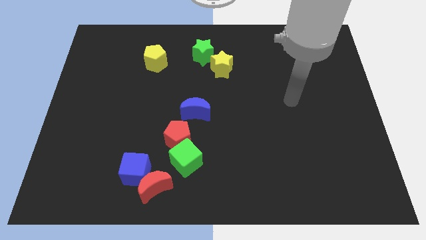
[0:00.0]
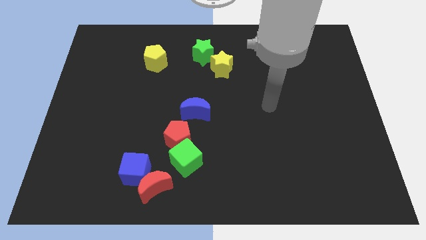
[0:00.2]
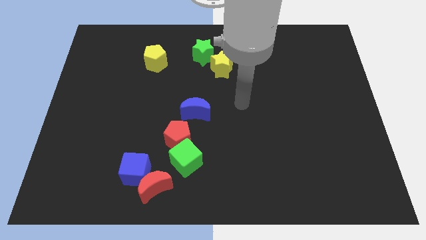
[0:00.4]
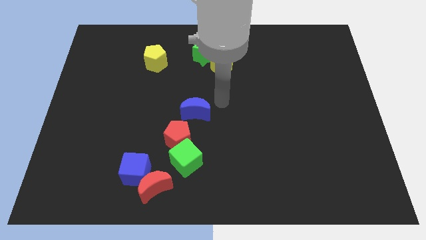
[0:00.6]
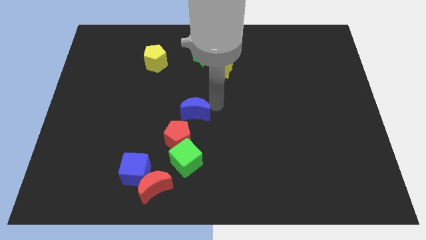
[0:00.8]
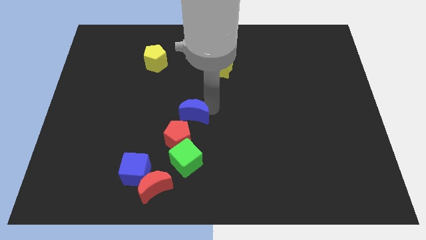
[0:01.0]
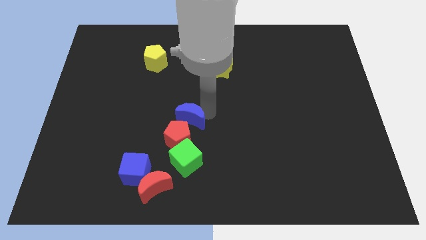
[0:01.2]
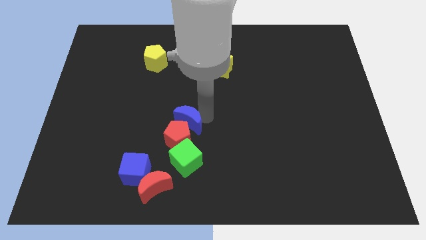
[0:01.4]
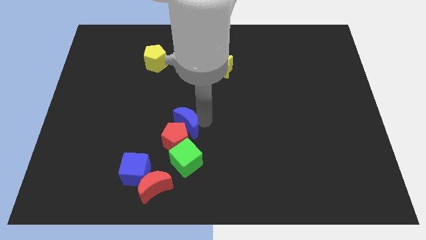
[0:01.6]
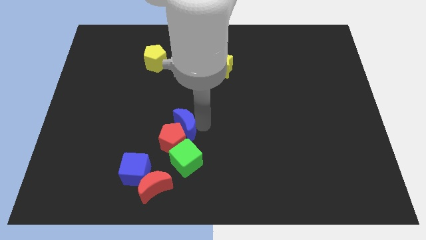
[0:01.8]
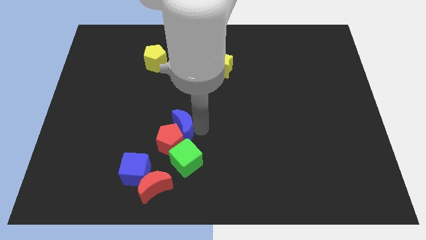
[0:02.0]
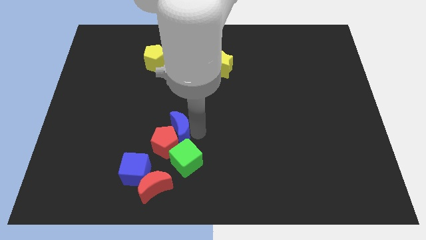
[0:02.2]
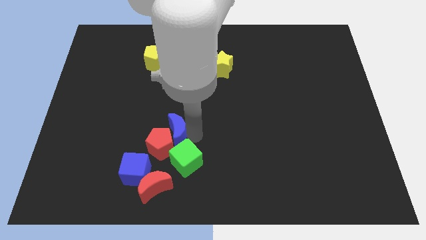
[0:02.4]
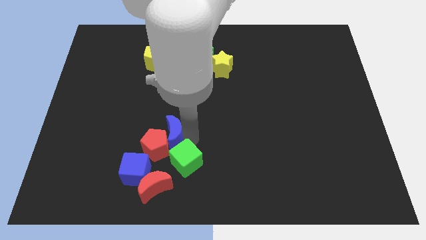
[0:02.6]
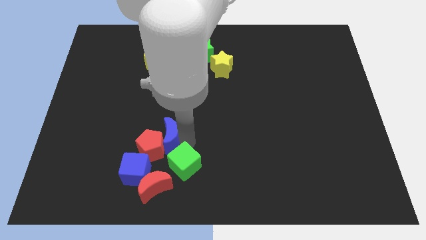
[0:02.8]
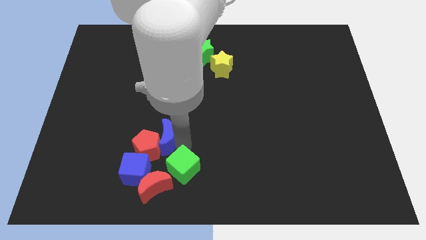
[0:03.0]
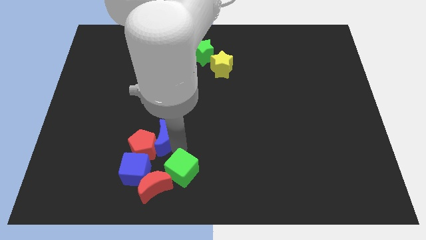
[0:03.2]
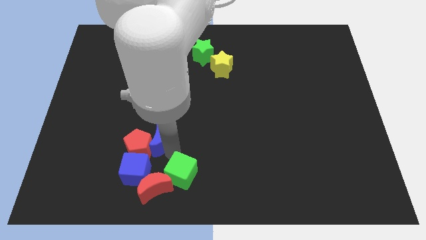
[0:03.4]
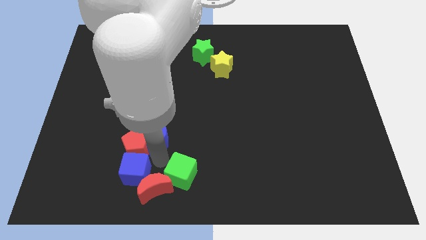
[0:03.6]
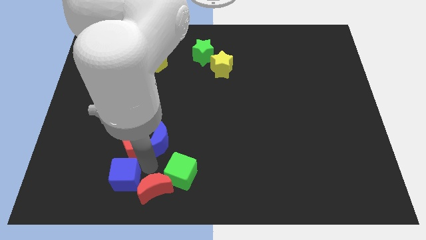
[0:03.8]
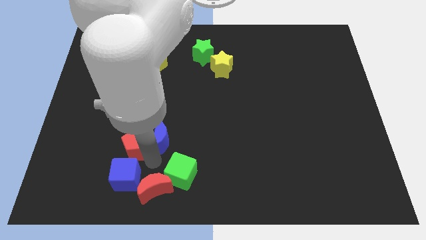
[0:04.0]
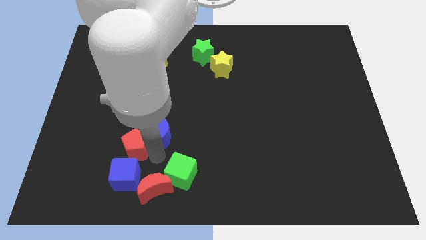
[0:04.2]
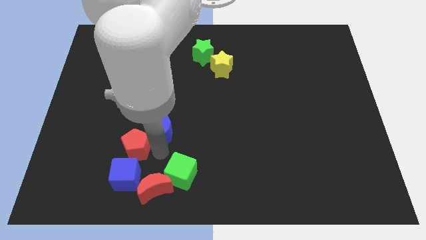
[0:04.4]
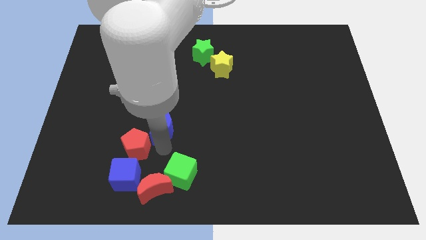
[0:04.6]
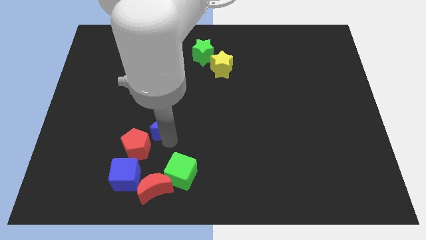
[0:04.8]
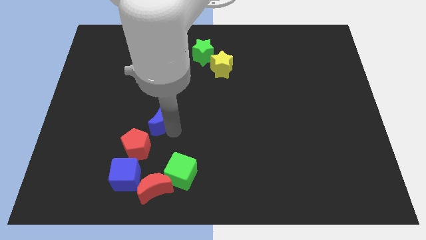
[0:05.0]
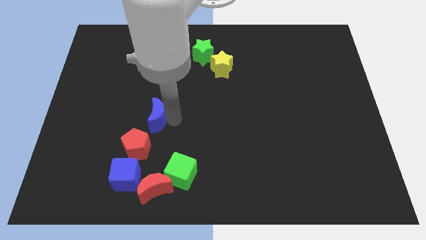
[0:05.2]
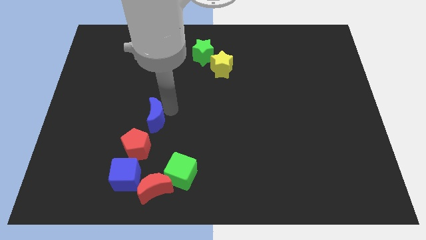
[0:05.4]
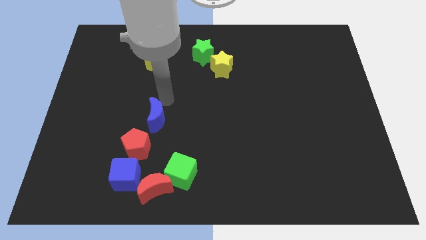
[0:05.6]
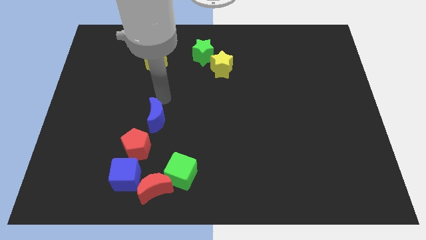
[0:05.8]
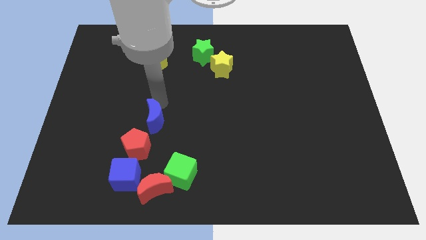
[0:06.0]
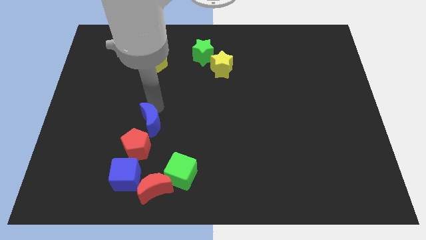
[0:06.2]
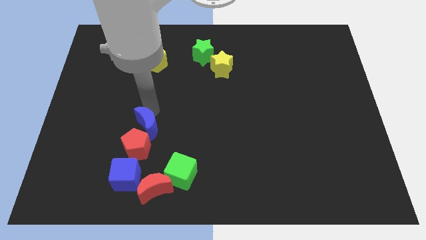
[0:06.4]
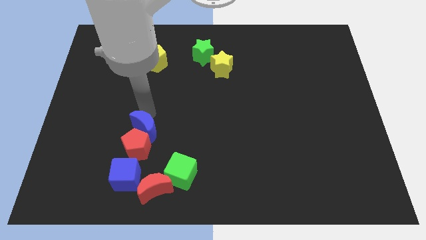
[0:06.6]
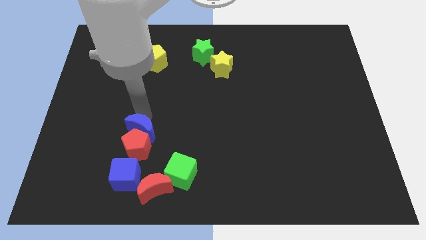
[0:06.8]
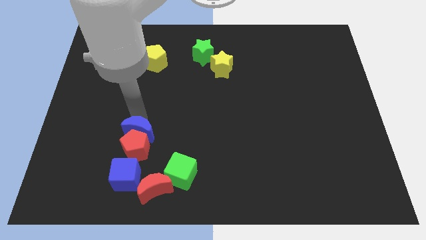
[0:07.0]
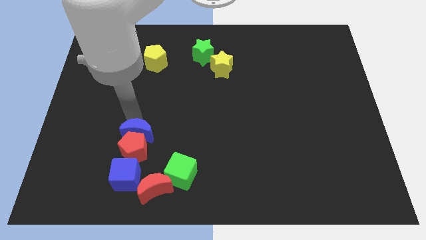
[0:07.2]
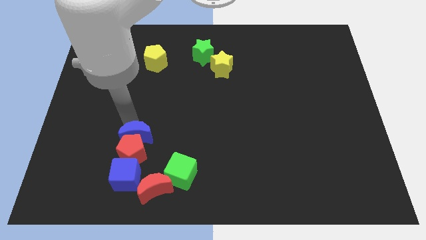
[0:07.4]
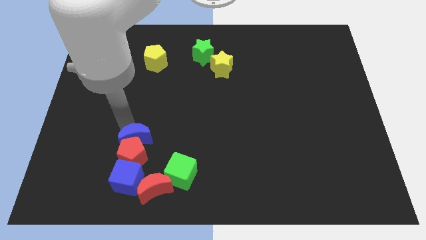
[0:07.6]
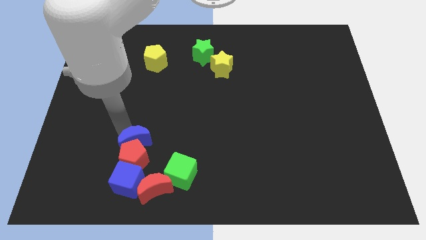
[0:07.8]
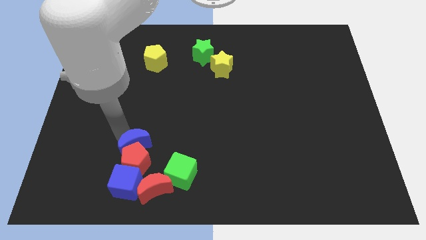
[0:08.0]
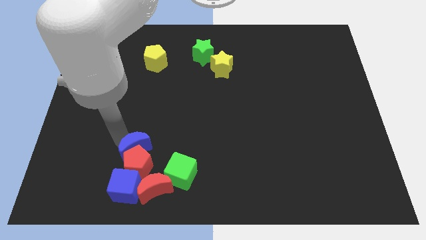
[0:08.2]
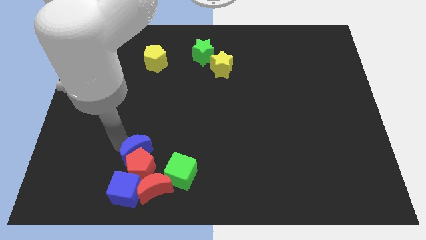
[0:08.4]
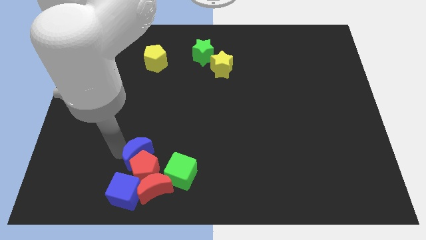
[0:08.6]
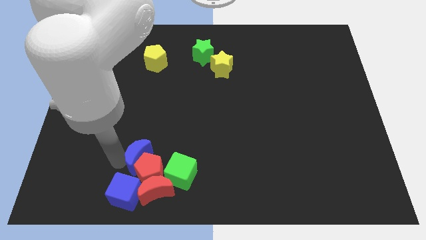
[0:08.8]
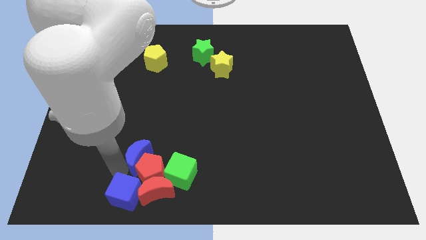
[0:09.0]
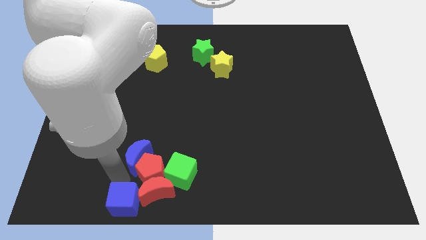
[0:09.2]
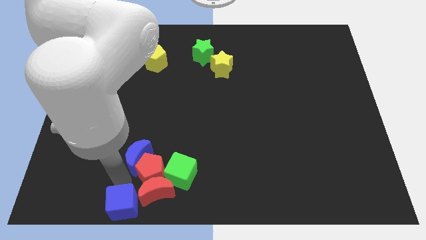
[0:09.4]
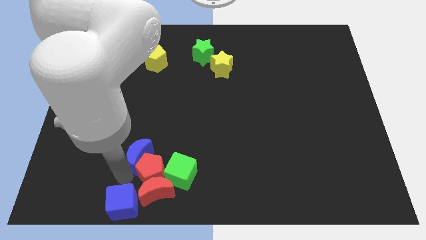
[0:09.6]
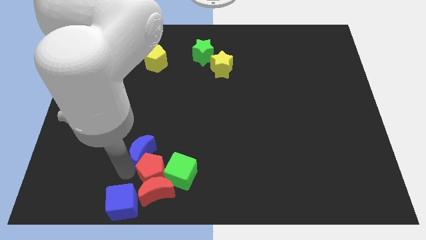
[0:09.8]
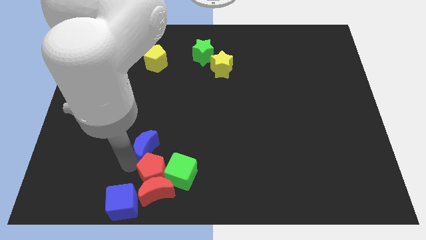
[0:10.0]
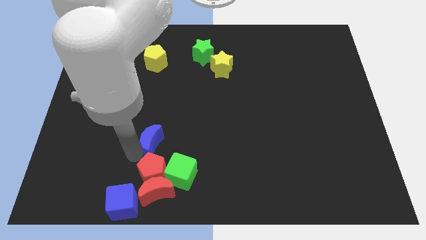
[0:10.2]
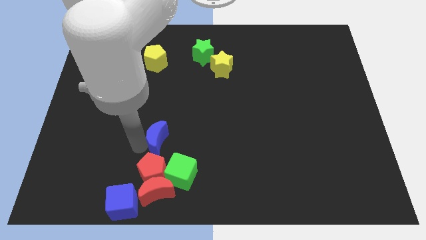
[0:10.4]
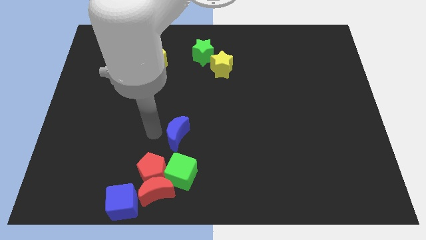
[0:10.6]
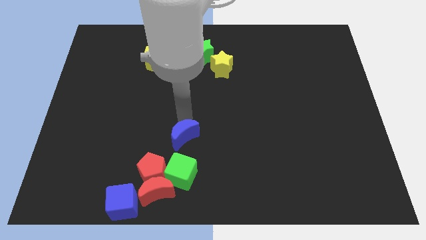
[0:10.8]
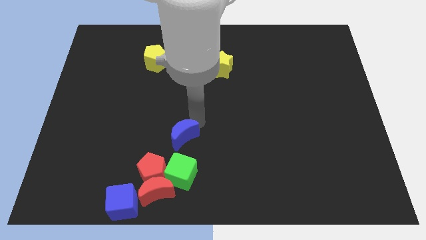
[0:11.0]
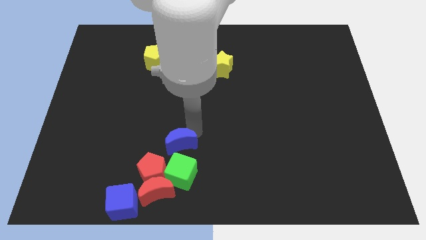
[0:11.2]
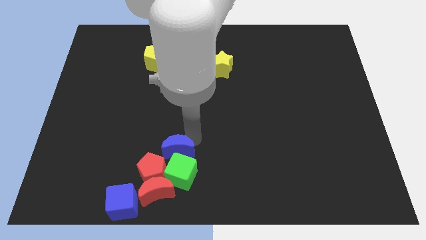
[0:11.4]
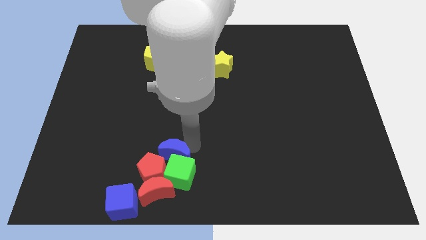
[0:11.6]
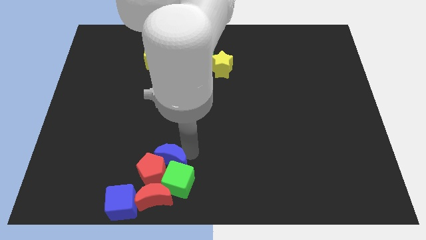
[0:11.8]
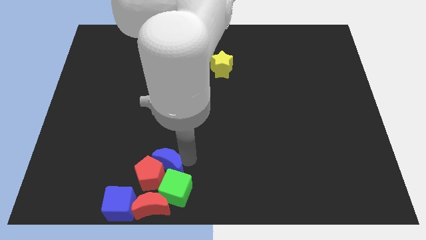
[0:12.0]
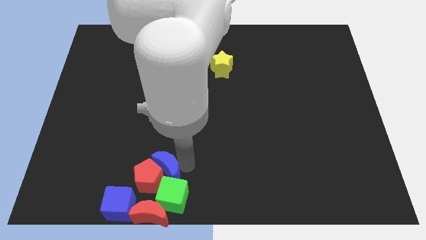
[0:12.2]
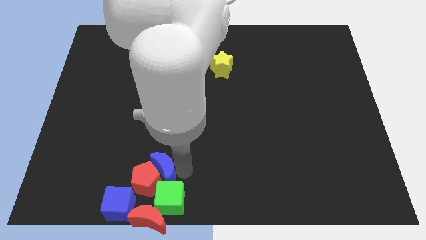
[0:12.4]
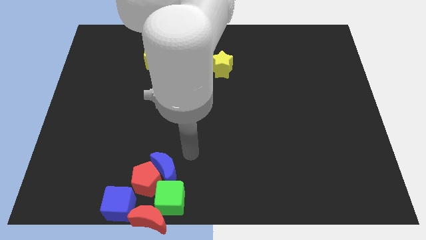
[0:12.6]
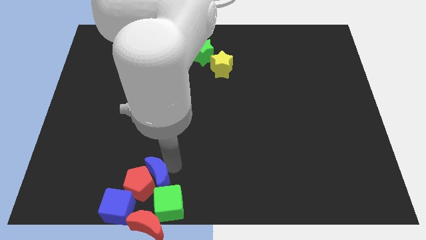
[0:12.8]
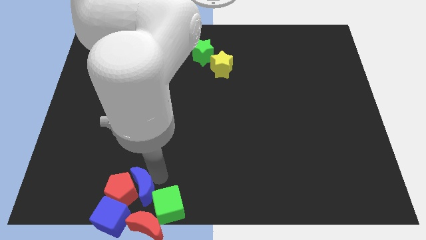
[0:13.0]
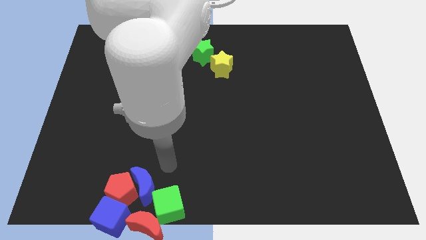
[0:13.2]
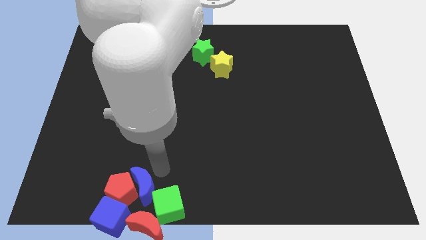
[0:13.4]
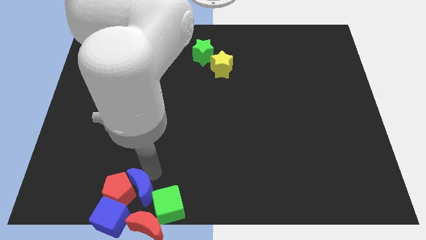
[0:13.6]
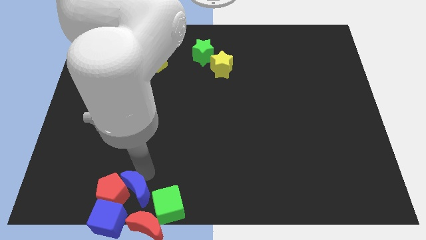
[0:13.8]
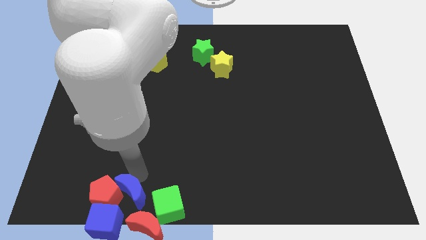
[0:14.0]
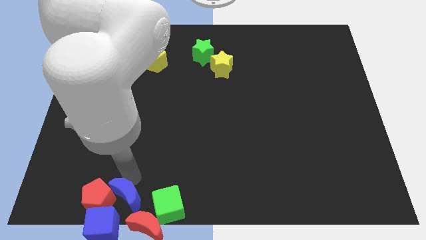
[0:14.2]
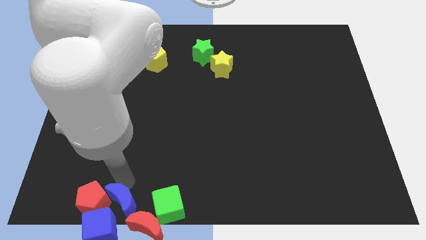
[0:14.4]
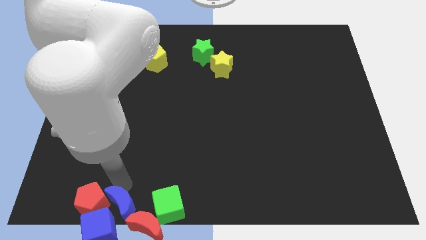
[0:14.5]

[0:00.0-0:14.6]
slide the blue moon to the blue cube
